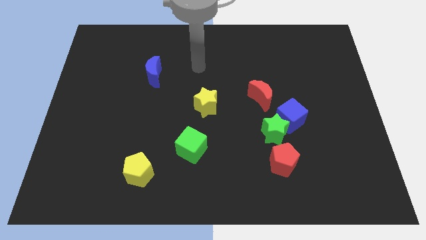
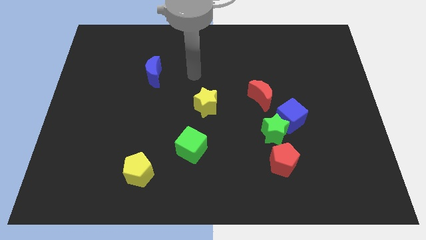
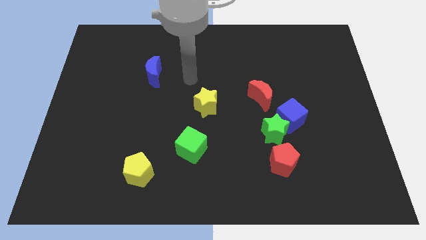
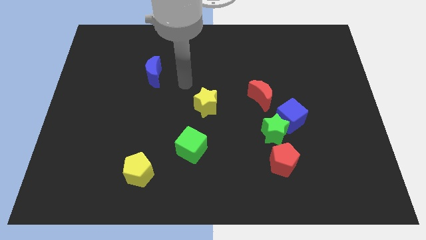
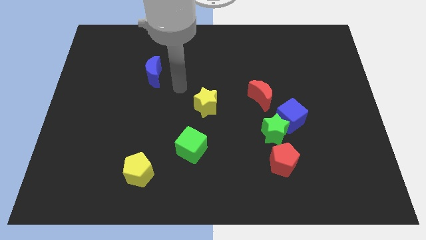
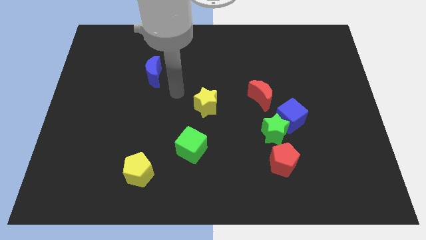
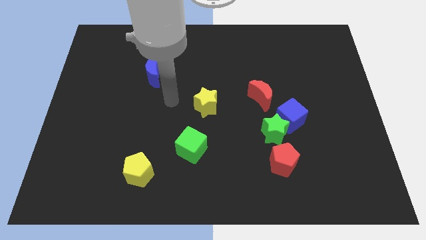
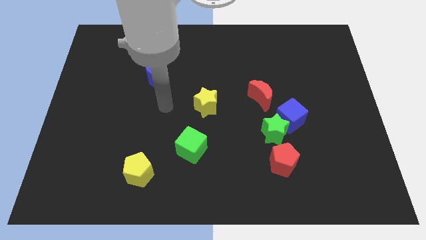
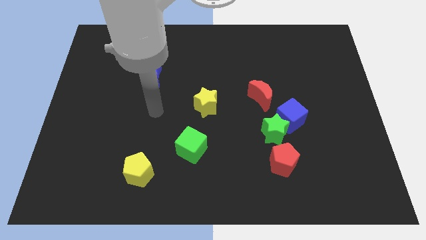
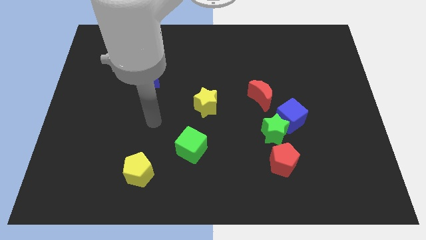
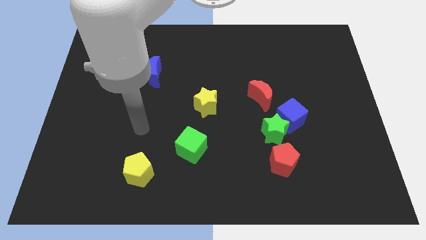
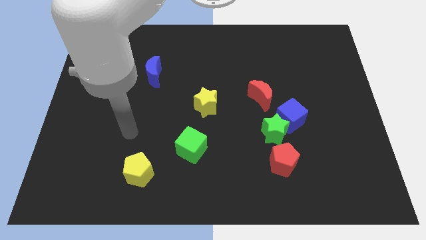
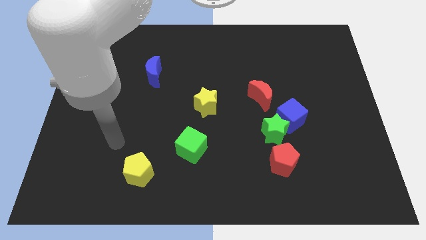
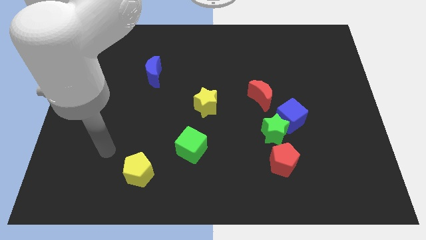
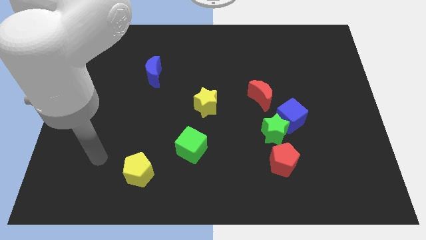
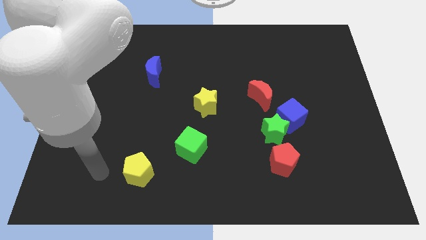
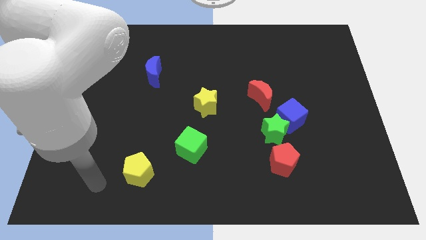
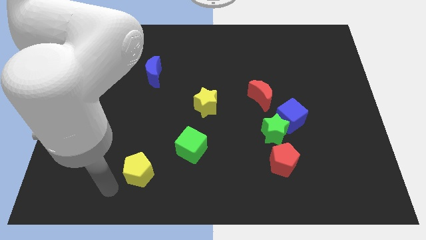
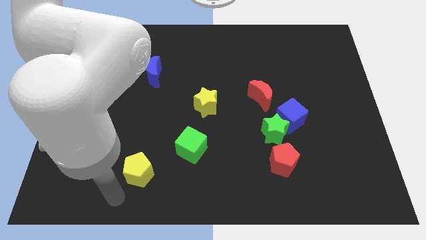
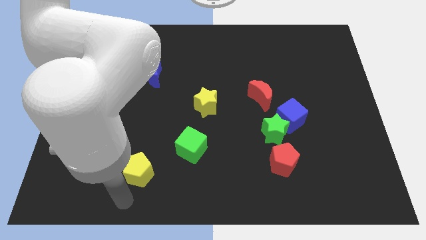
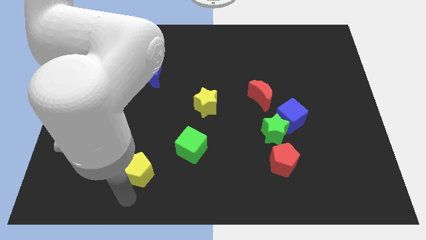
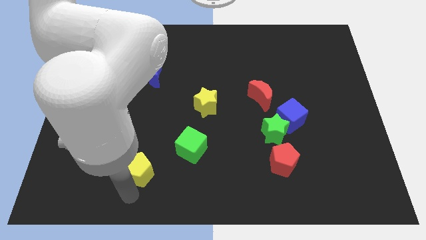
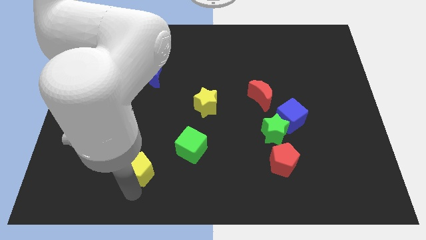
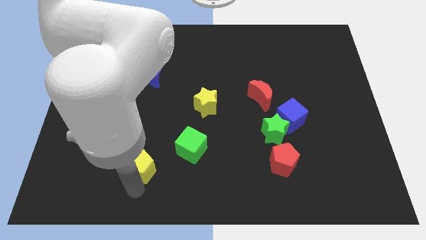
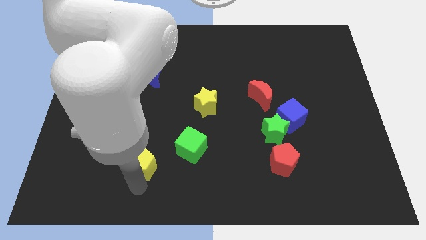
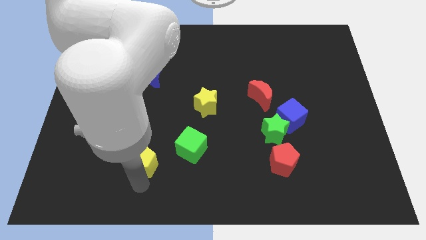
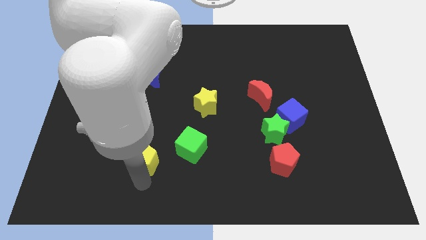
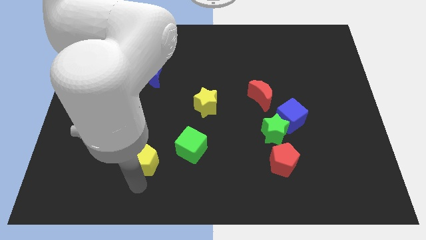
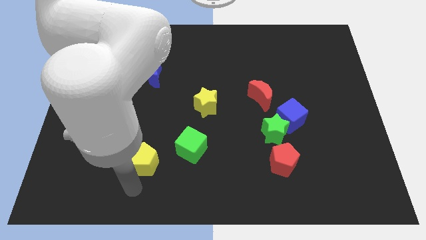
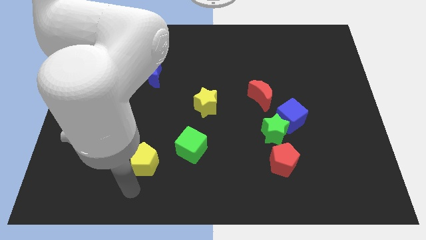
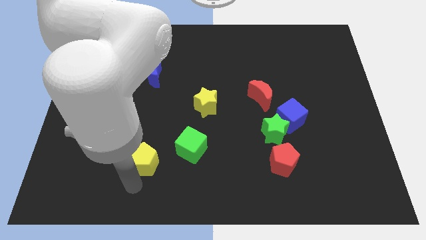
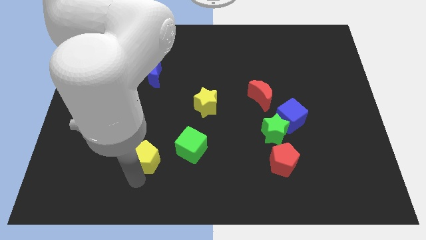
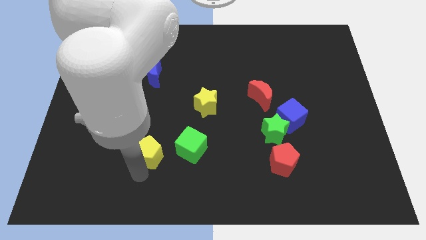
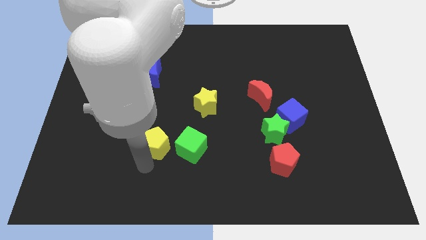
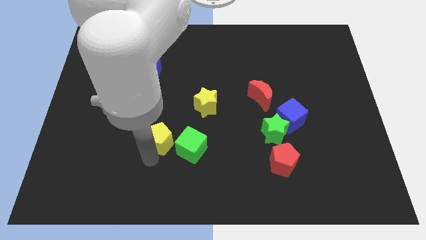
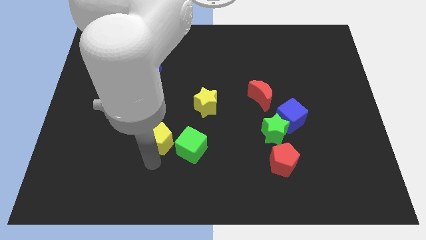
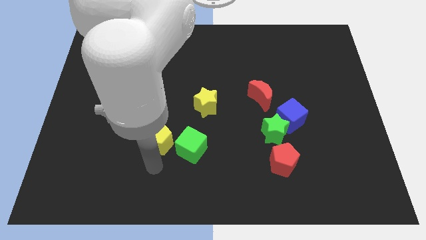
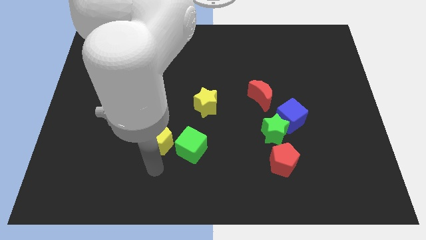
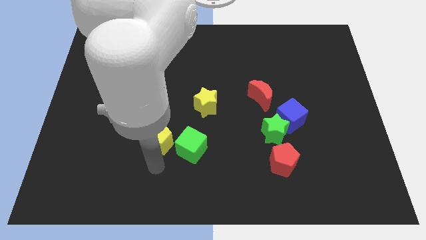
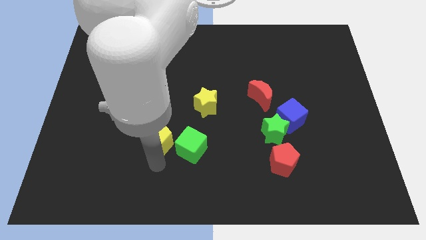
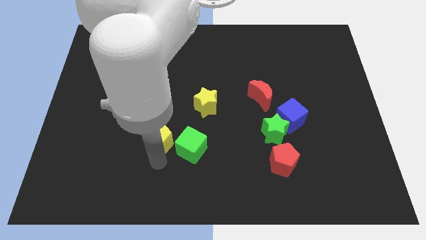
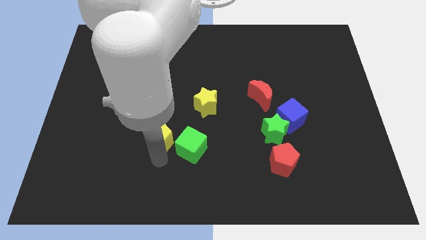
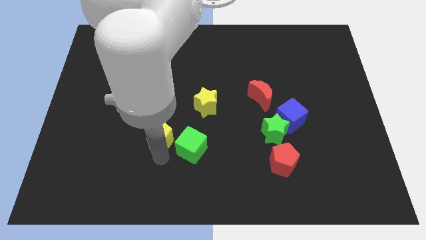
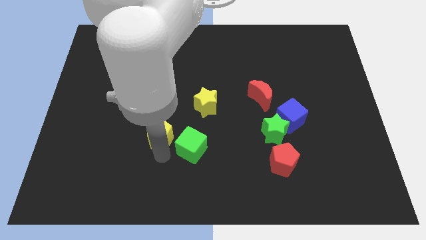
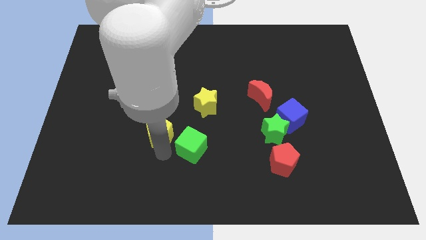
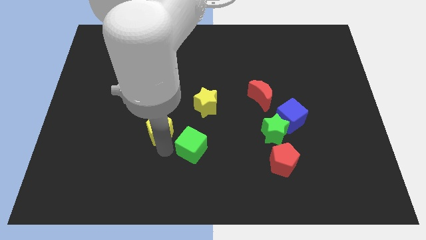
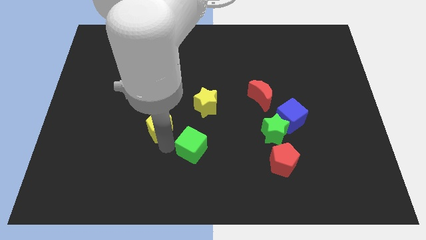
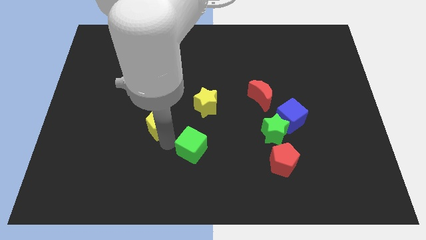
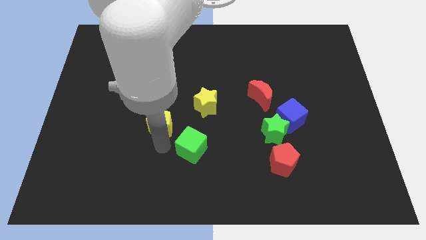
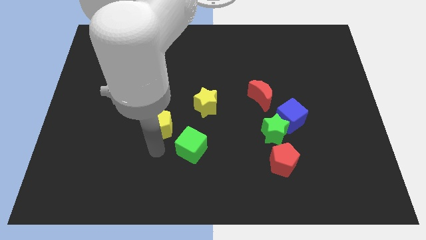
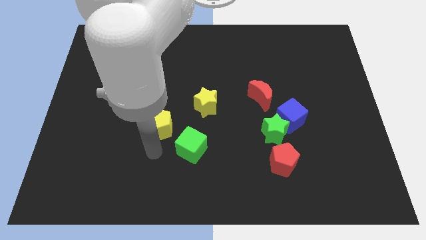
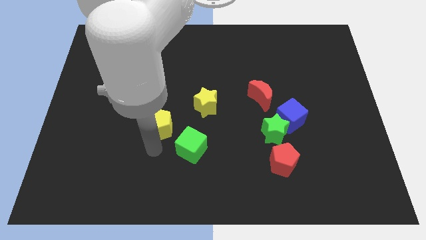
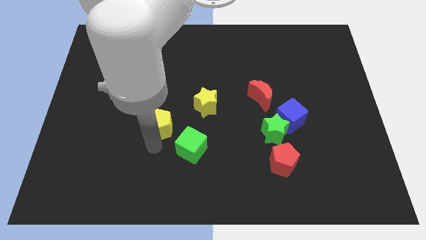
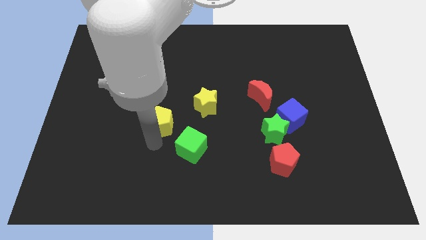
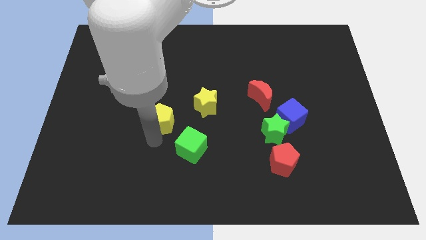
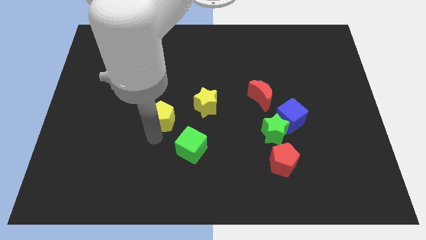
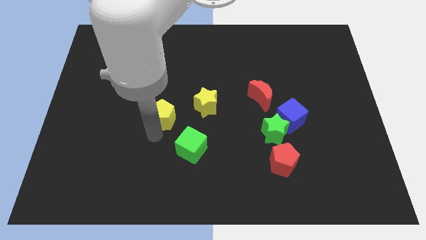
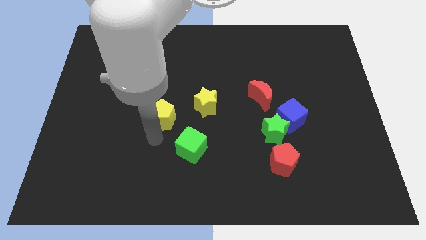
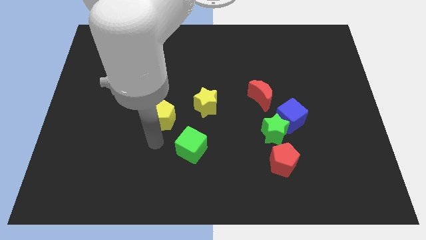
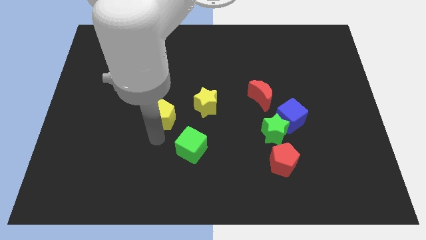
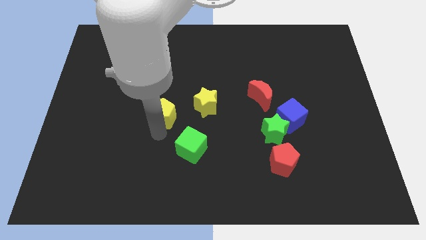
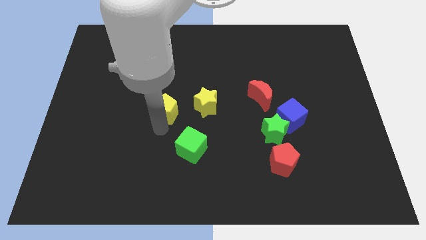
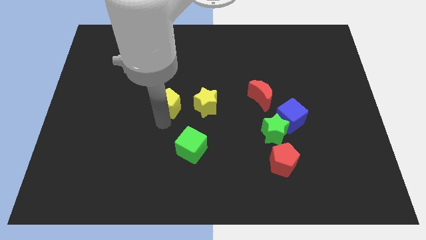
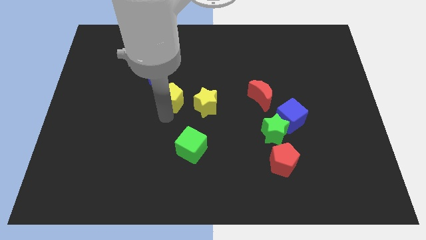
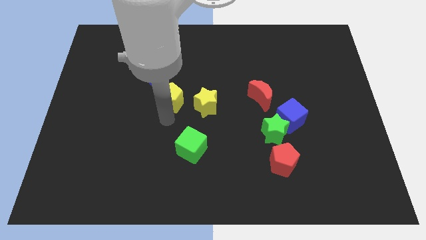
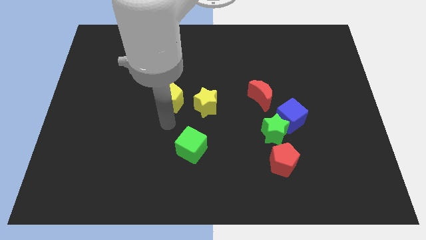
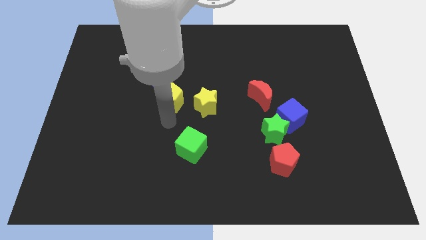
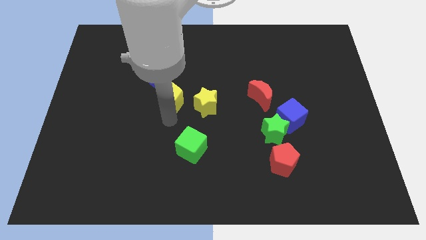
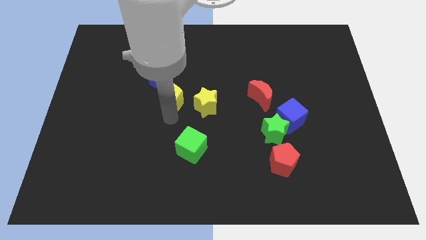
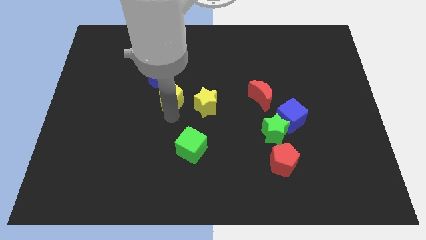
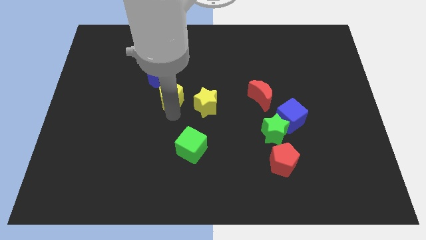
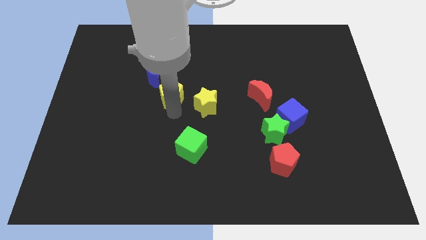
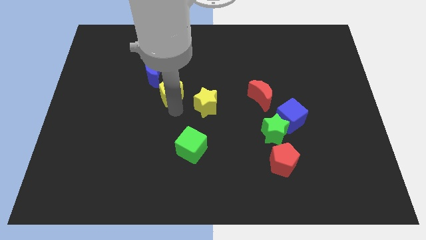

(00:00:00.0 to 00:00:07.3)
slide the yellow pentagon upwards

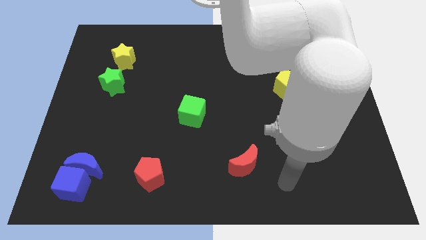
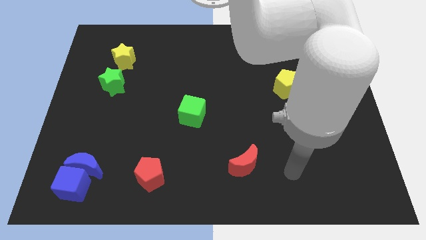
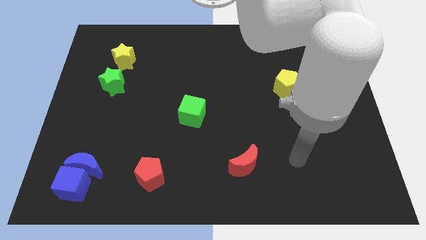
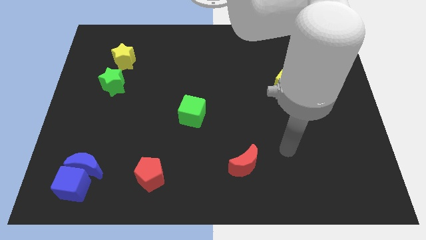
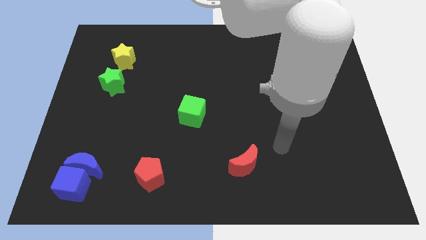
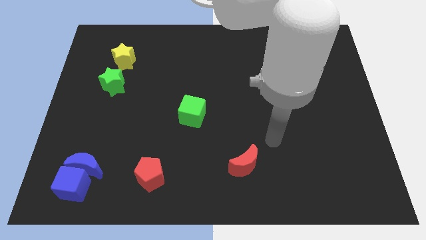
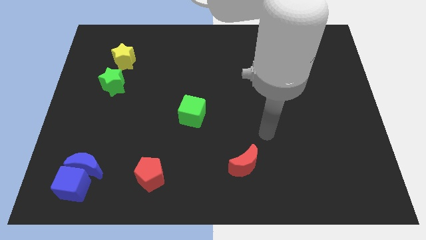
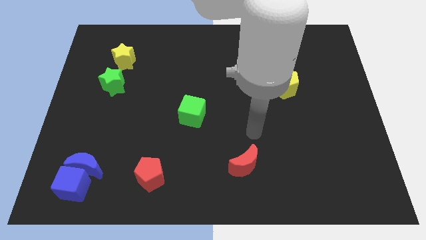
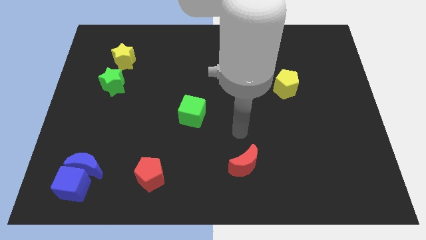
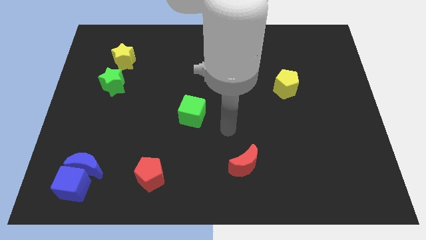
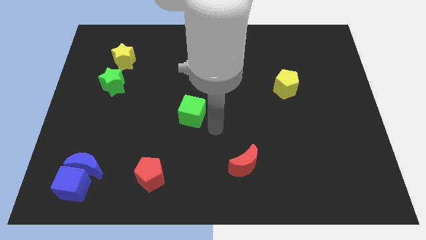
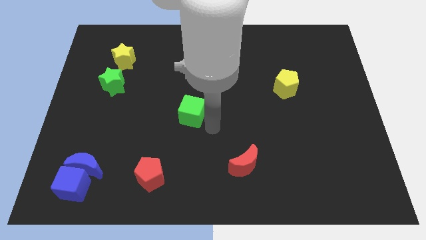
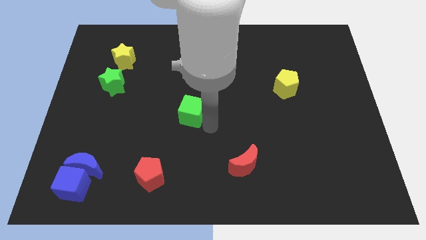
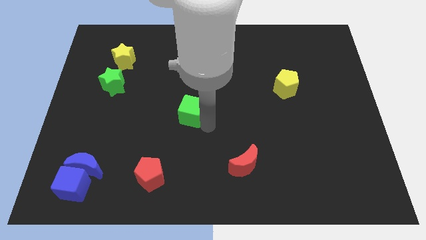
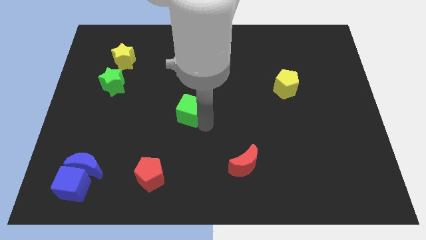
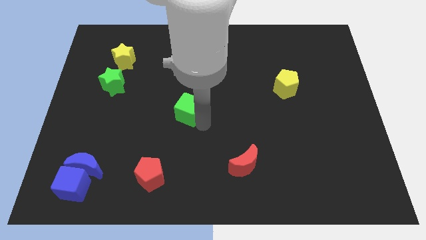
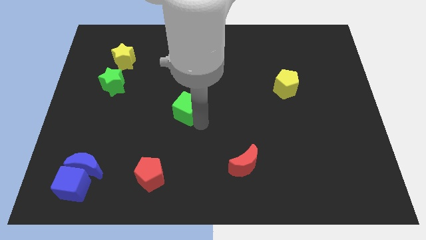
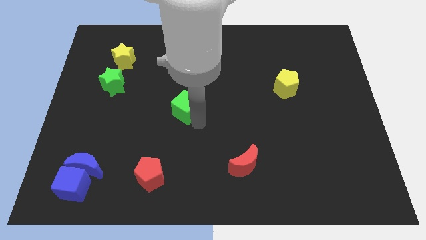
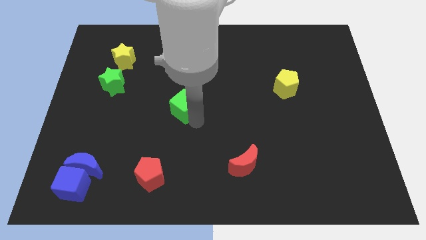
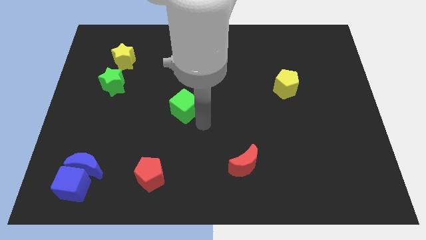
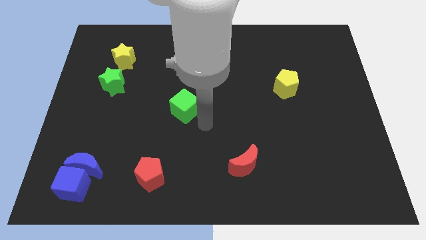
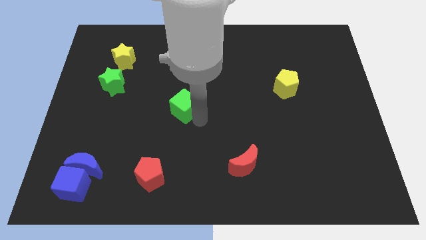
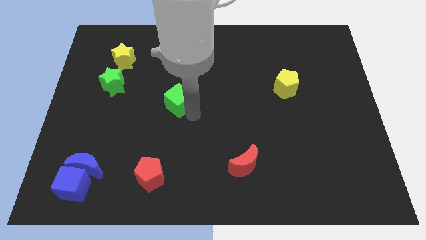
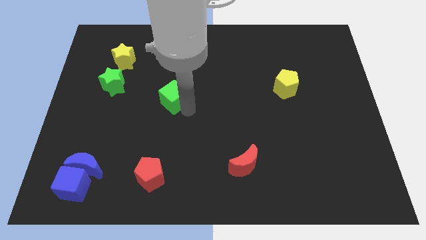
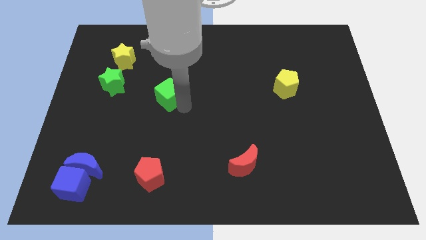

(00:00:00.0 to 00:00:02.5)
move the green cube upwards and left diagonally a little
